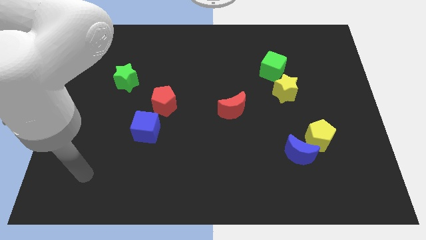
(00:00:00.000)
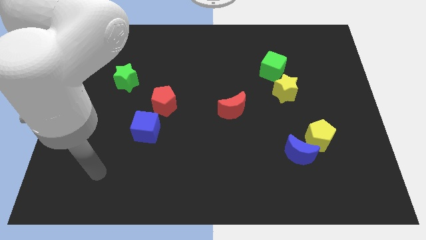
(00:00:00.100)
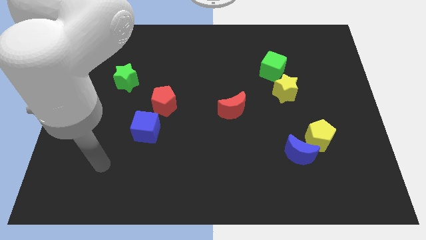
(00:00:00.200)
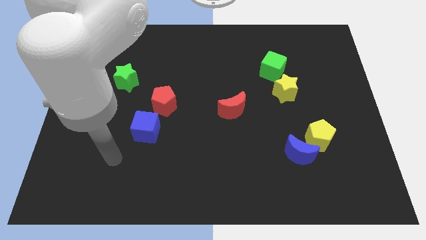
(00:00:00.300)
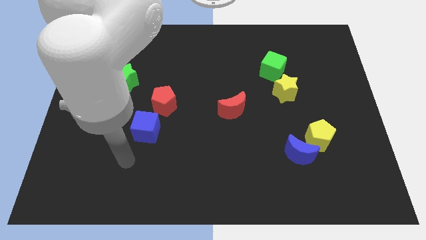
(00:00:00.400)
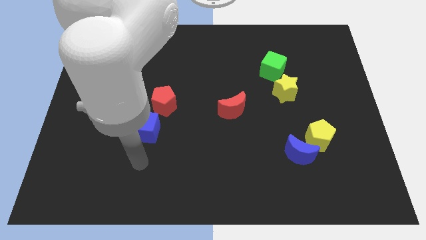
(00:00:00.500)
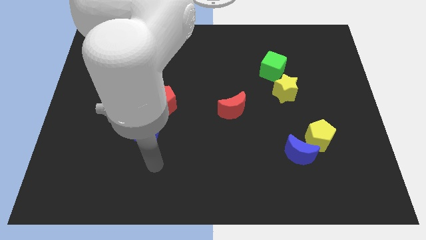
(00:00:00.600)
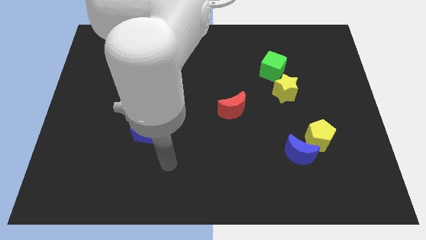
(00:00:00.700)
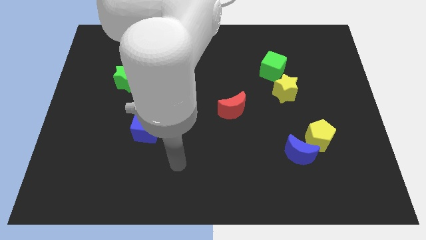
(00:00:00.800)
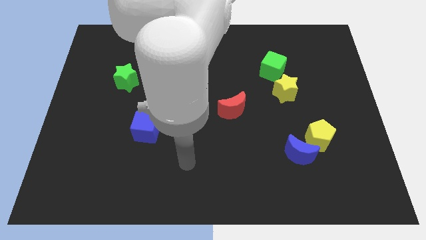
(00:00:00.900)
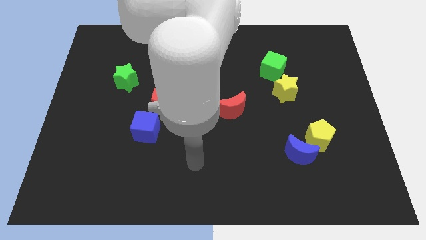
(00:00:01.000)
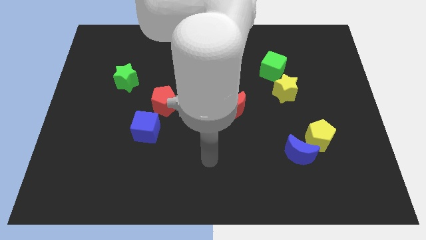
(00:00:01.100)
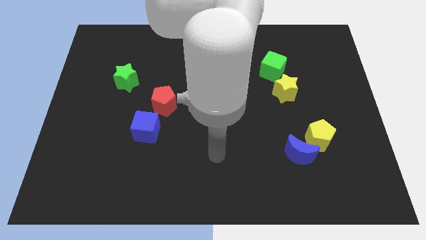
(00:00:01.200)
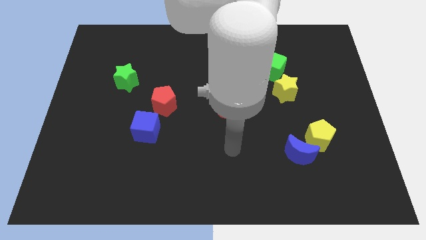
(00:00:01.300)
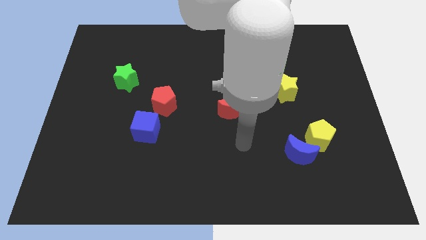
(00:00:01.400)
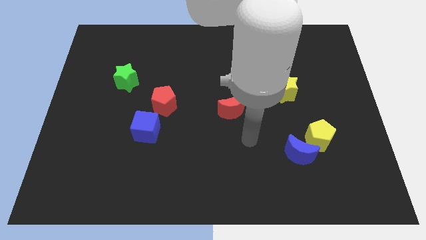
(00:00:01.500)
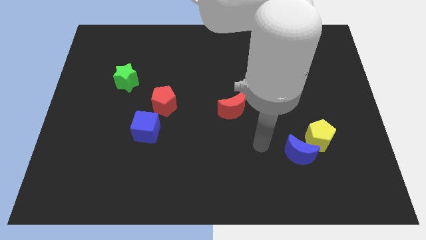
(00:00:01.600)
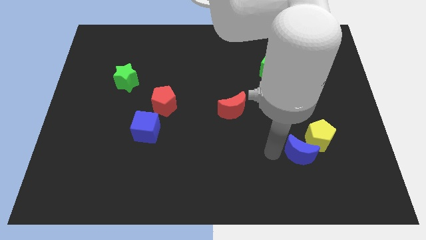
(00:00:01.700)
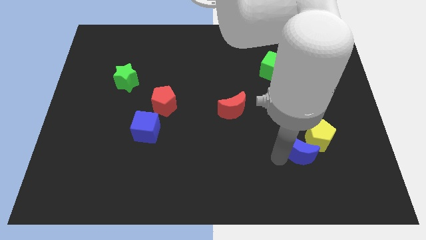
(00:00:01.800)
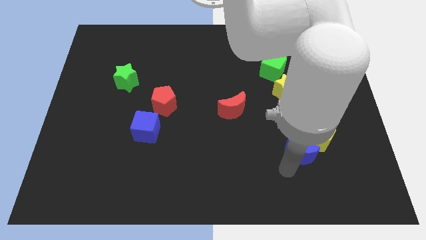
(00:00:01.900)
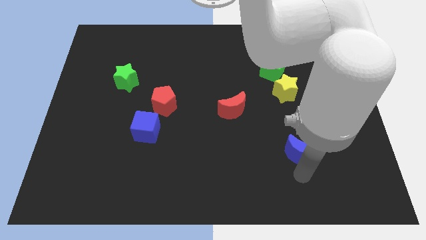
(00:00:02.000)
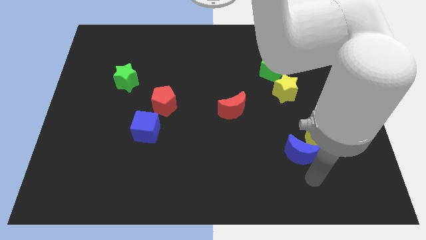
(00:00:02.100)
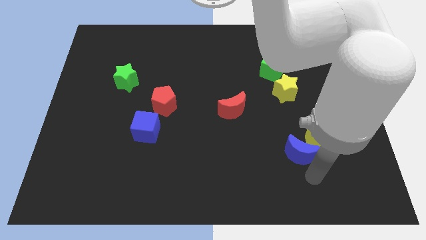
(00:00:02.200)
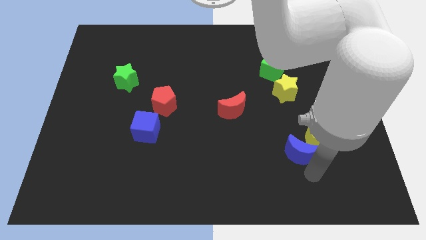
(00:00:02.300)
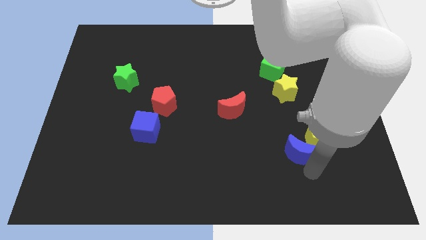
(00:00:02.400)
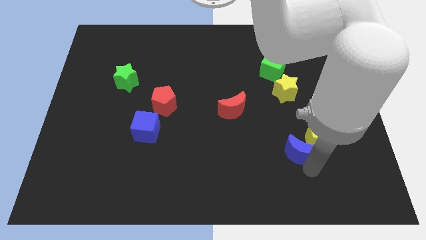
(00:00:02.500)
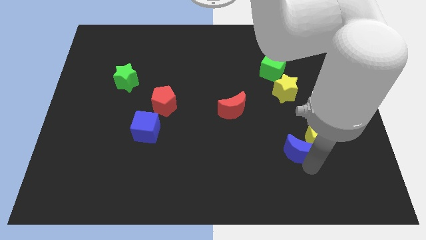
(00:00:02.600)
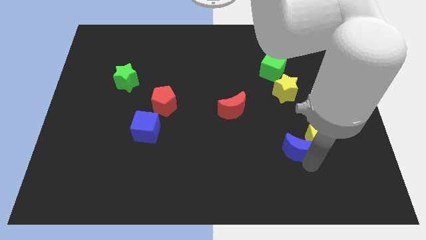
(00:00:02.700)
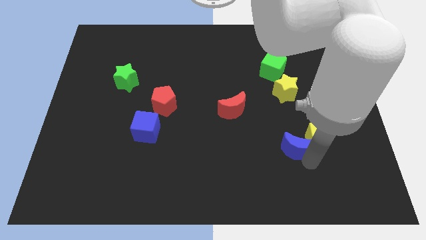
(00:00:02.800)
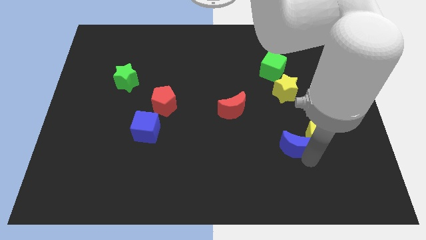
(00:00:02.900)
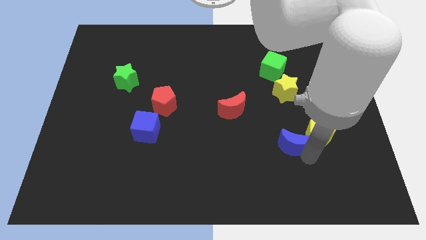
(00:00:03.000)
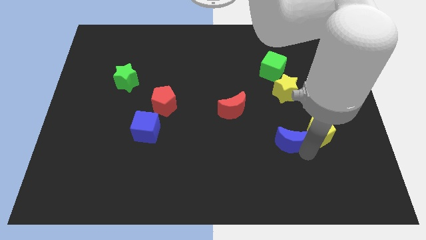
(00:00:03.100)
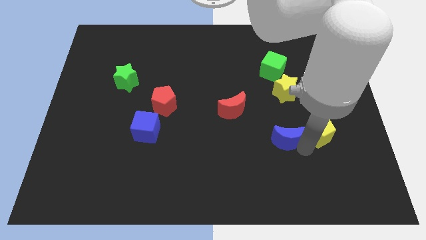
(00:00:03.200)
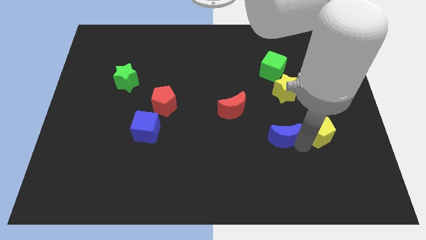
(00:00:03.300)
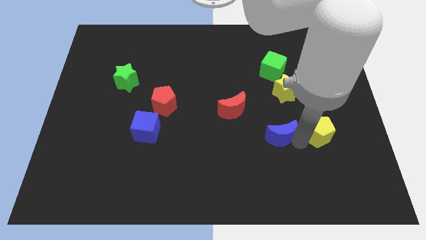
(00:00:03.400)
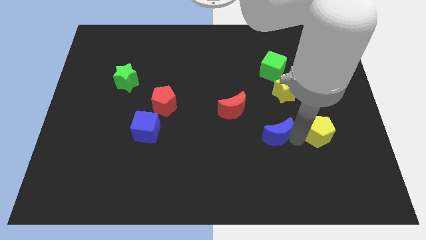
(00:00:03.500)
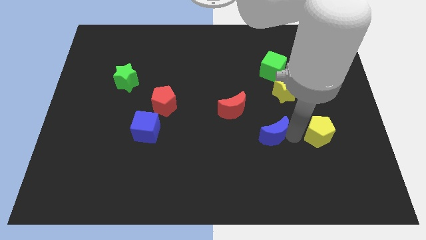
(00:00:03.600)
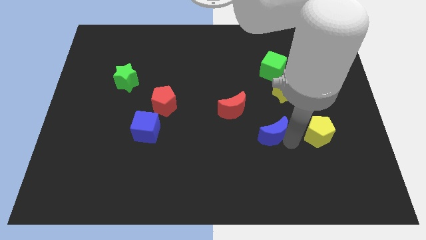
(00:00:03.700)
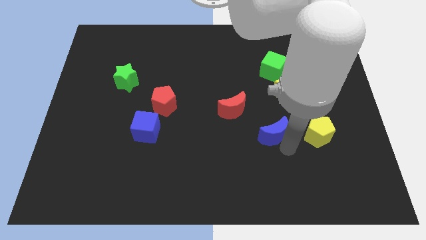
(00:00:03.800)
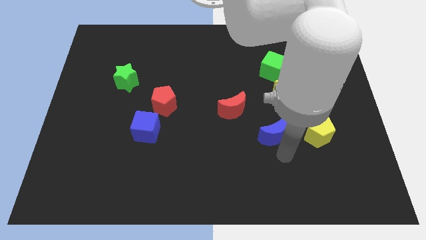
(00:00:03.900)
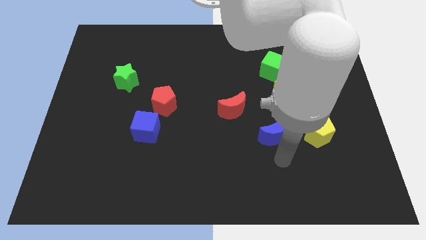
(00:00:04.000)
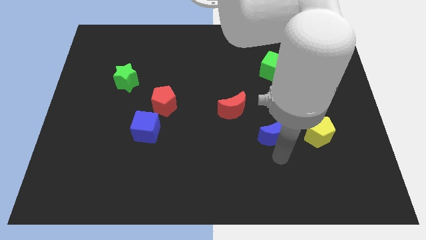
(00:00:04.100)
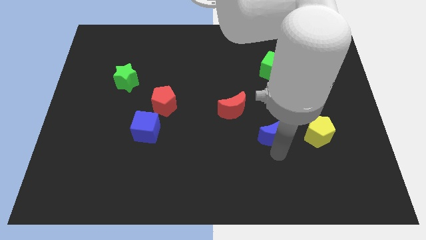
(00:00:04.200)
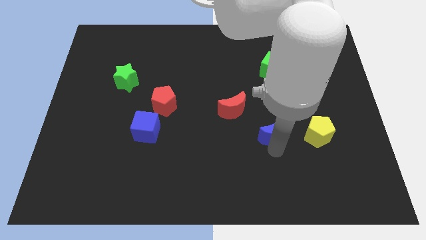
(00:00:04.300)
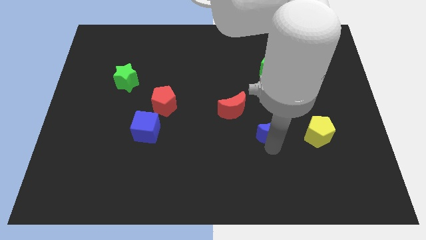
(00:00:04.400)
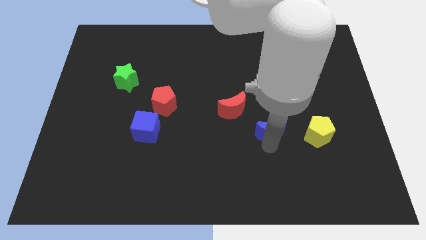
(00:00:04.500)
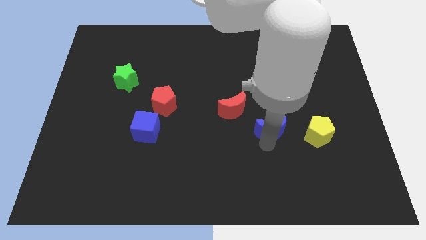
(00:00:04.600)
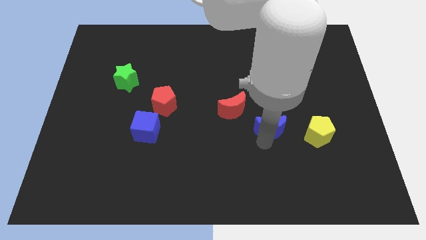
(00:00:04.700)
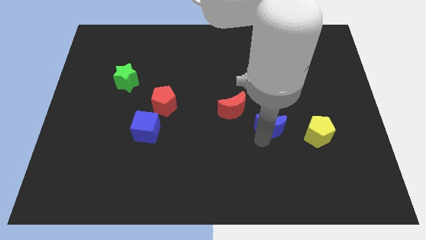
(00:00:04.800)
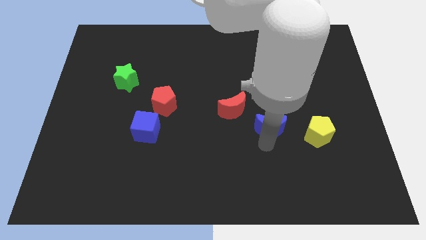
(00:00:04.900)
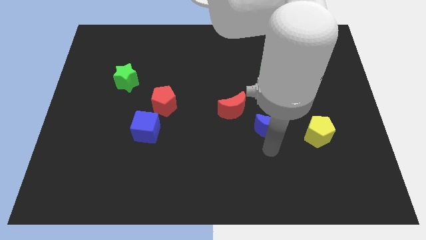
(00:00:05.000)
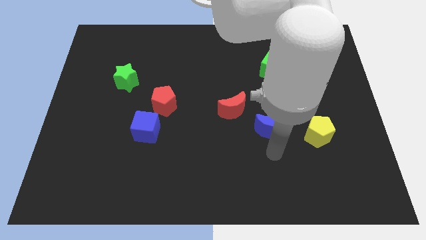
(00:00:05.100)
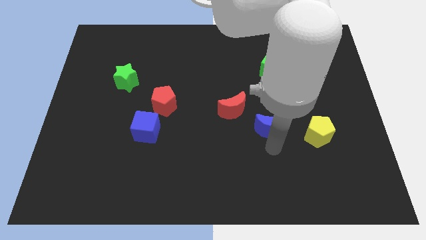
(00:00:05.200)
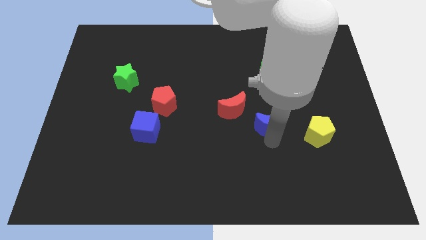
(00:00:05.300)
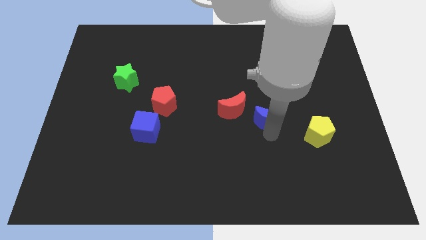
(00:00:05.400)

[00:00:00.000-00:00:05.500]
slide the blue moon diagonally down and to the left of the yellow star

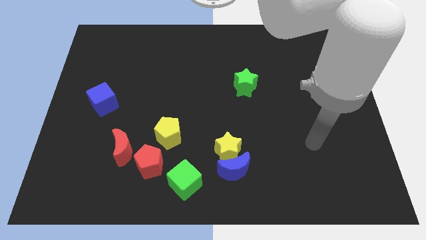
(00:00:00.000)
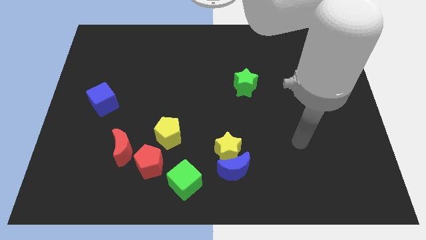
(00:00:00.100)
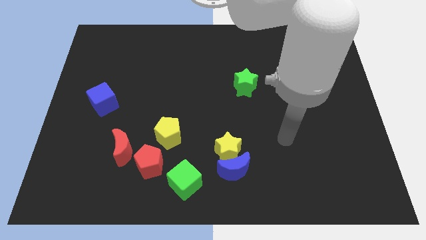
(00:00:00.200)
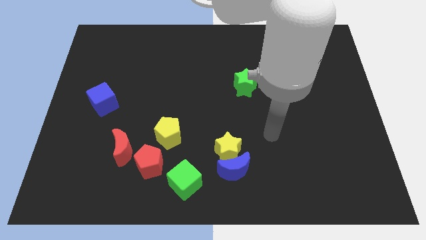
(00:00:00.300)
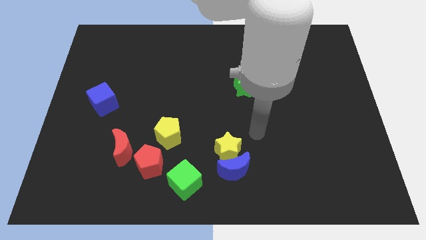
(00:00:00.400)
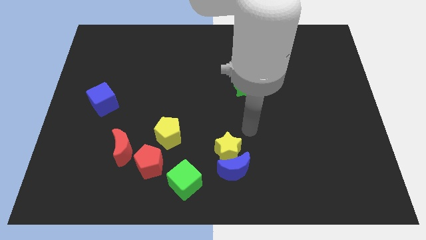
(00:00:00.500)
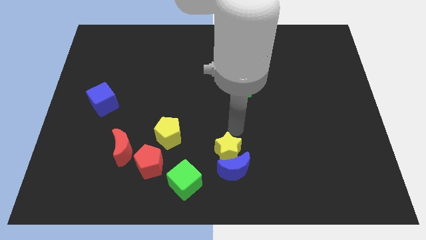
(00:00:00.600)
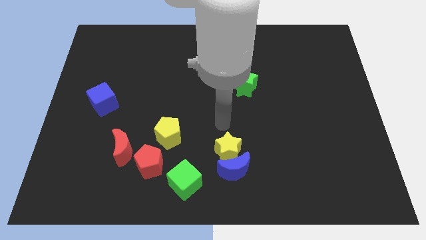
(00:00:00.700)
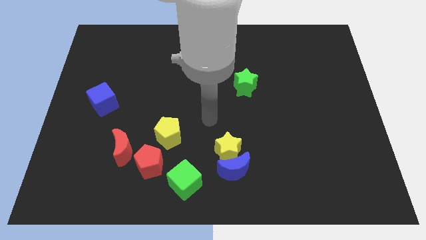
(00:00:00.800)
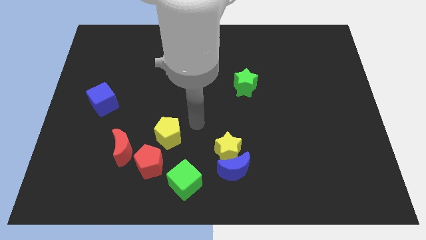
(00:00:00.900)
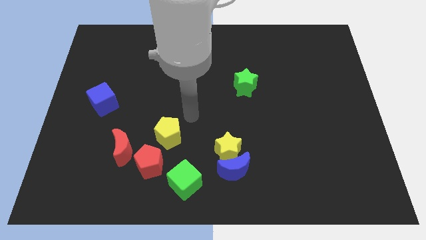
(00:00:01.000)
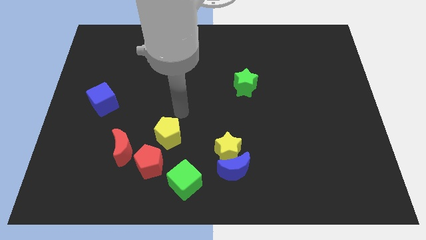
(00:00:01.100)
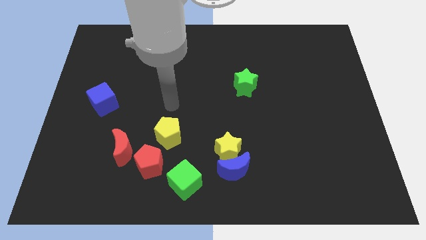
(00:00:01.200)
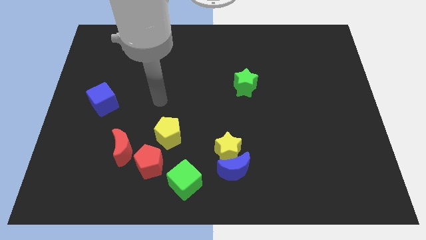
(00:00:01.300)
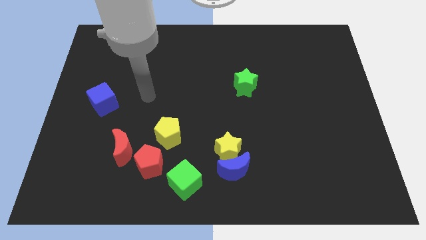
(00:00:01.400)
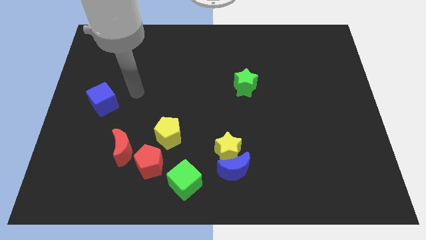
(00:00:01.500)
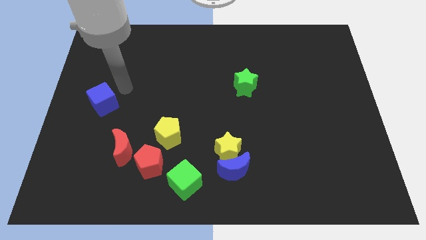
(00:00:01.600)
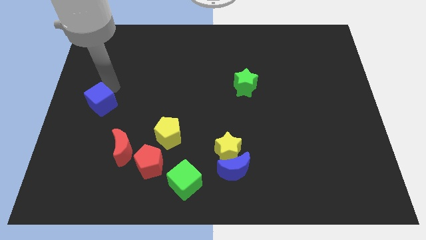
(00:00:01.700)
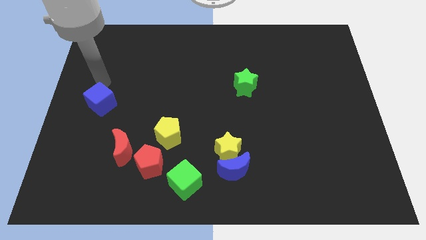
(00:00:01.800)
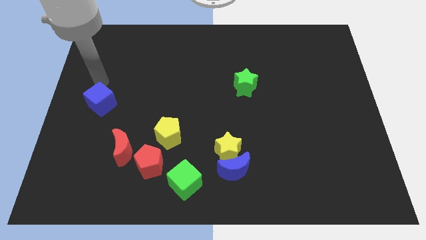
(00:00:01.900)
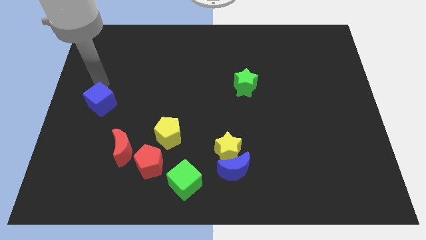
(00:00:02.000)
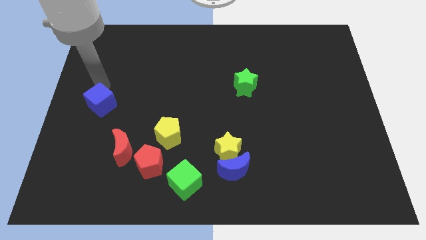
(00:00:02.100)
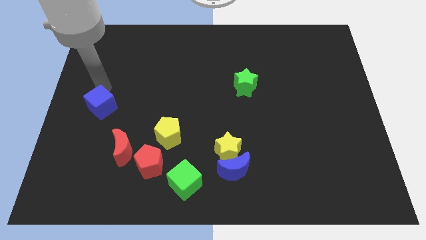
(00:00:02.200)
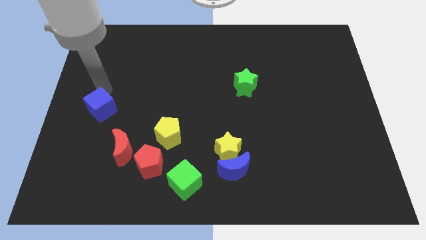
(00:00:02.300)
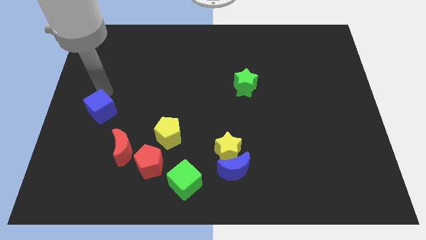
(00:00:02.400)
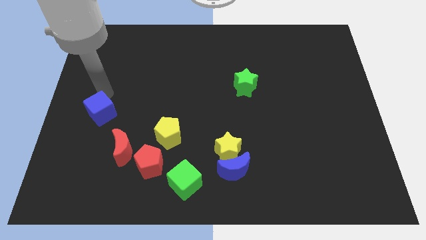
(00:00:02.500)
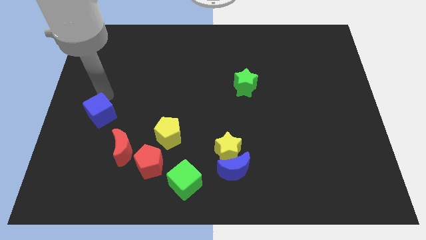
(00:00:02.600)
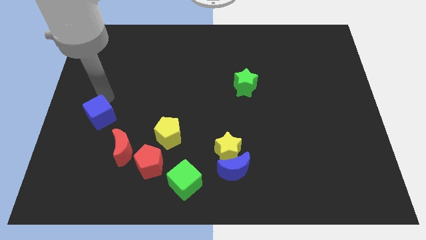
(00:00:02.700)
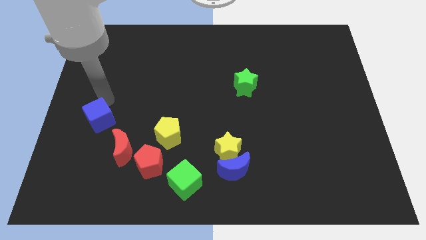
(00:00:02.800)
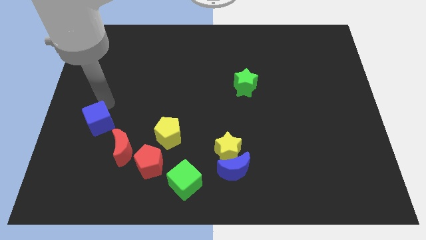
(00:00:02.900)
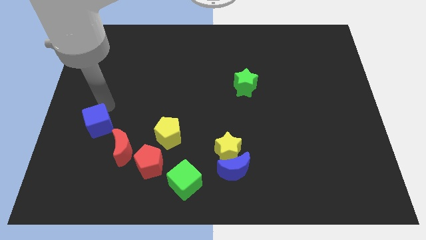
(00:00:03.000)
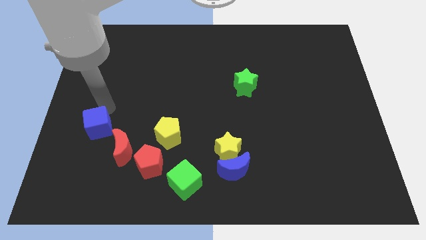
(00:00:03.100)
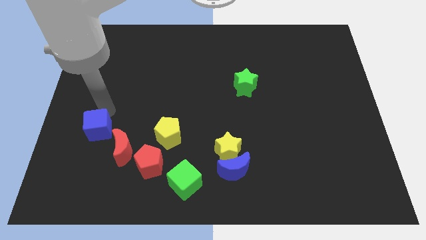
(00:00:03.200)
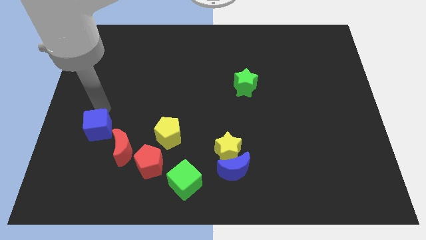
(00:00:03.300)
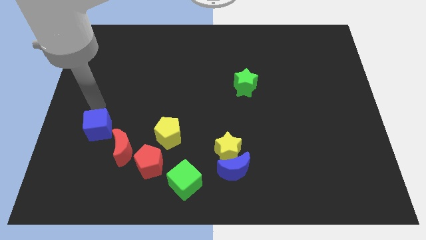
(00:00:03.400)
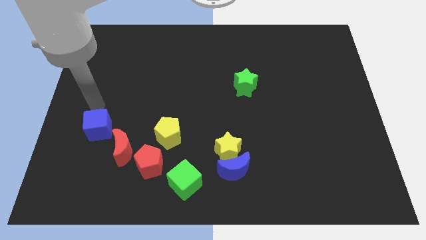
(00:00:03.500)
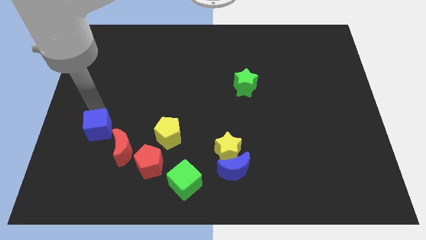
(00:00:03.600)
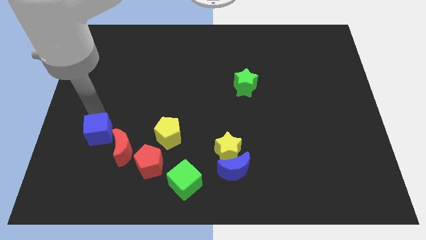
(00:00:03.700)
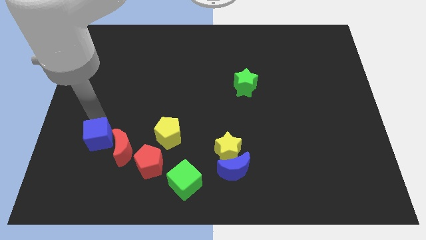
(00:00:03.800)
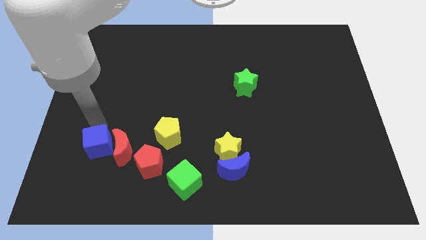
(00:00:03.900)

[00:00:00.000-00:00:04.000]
push the blue cube to the left side of the red pentagon
